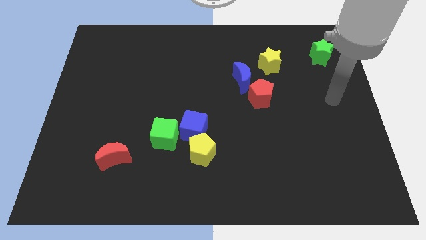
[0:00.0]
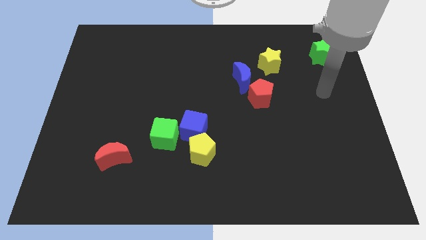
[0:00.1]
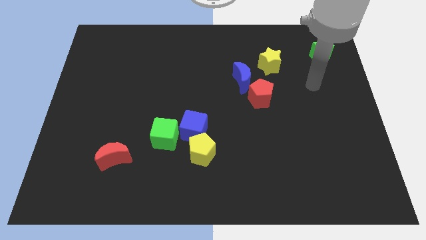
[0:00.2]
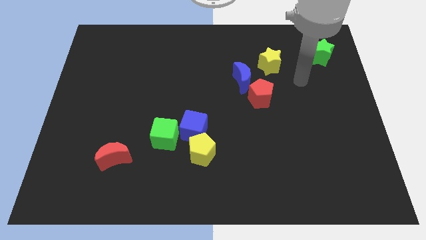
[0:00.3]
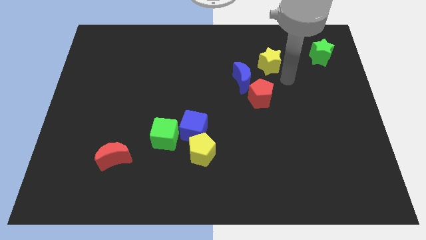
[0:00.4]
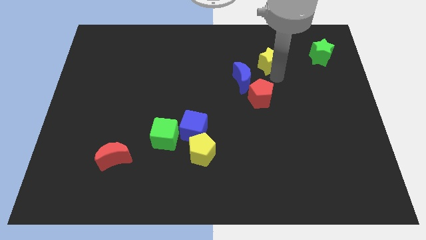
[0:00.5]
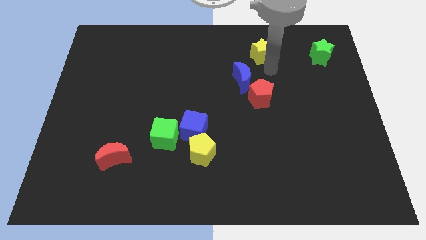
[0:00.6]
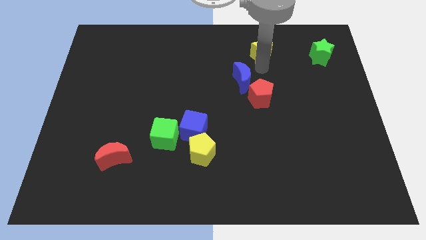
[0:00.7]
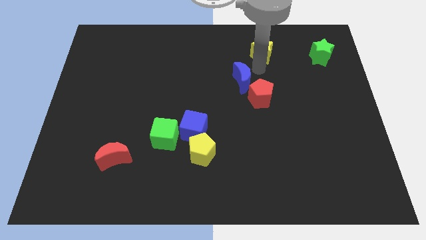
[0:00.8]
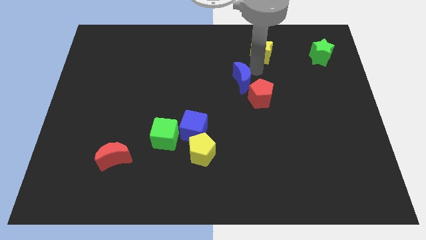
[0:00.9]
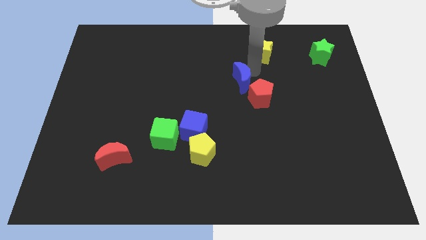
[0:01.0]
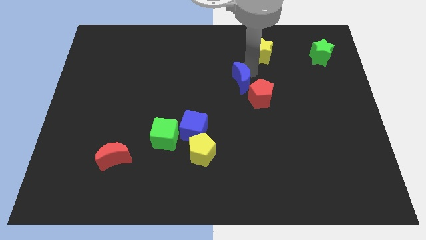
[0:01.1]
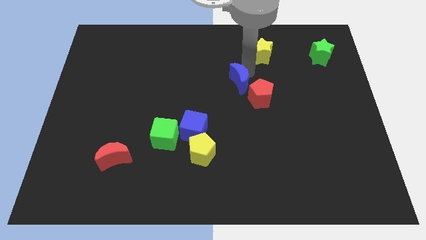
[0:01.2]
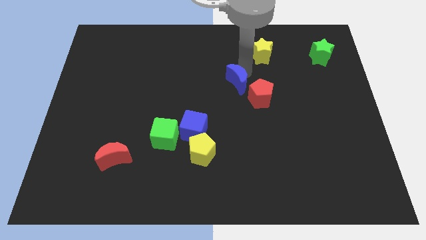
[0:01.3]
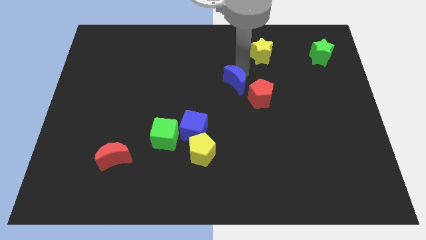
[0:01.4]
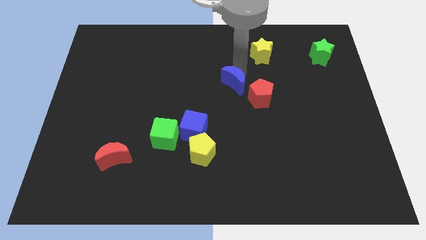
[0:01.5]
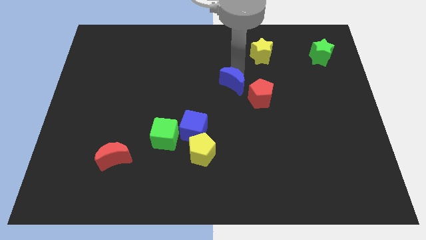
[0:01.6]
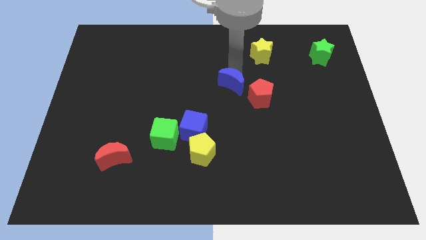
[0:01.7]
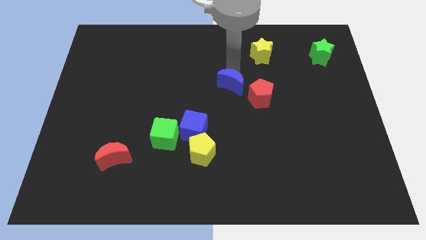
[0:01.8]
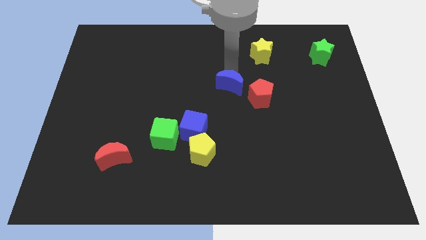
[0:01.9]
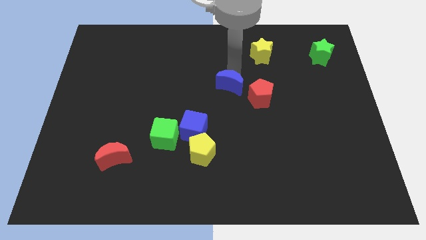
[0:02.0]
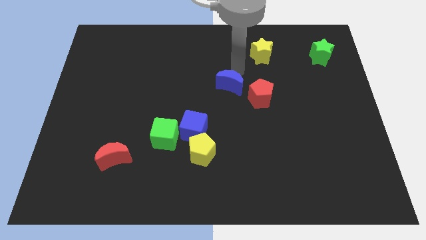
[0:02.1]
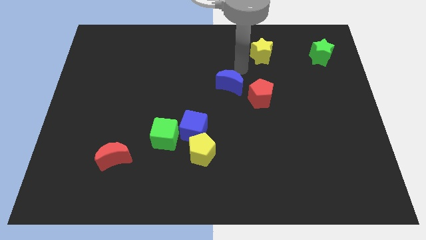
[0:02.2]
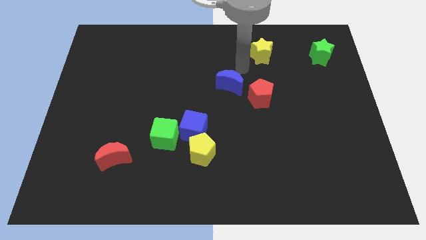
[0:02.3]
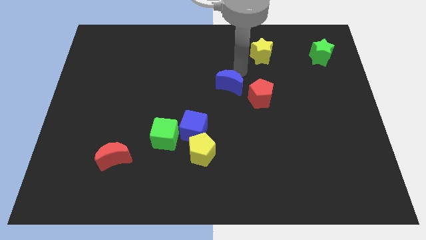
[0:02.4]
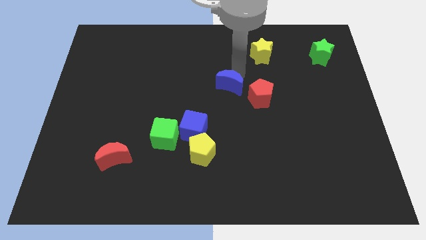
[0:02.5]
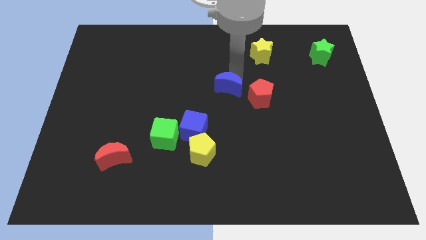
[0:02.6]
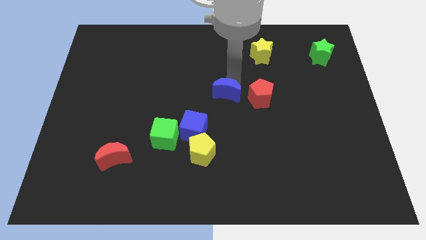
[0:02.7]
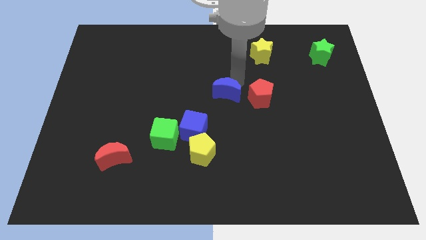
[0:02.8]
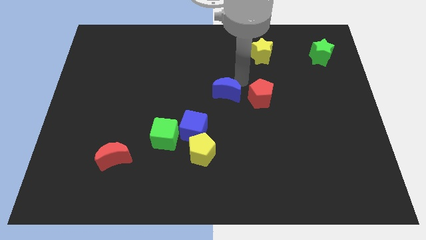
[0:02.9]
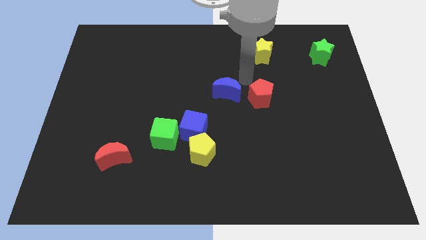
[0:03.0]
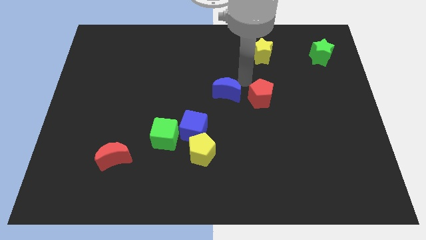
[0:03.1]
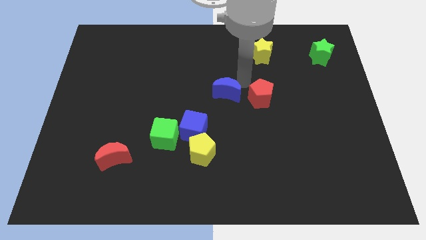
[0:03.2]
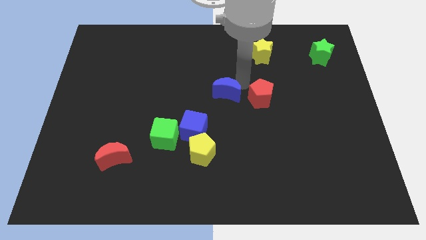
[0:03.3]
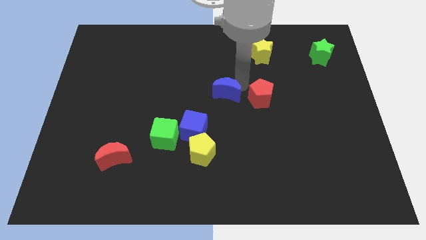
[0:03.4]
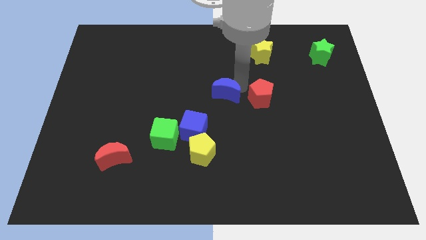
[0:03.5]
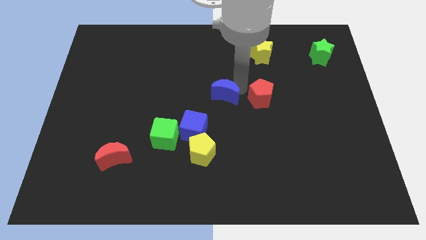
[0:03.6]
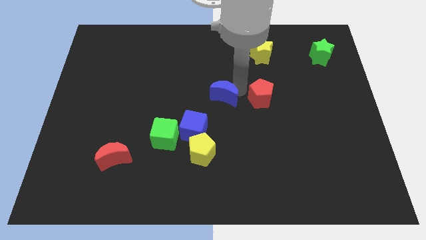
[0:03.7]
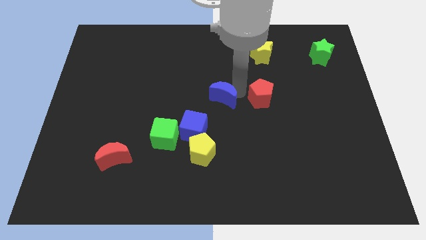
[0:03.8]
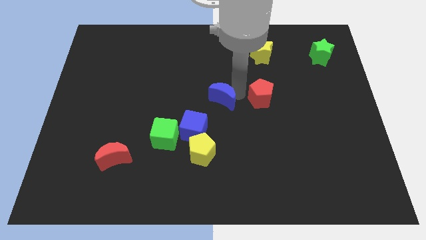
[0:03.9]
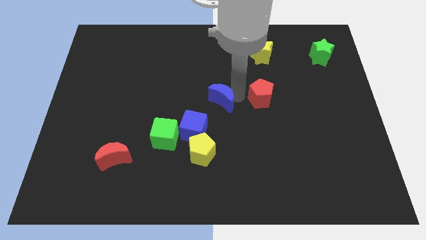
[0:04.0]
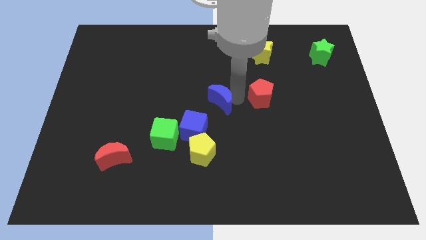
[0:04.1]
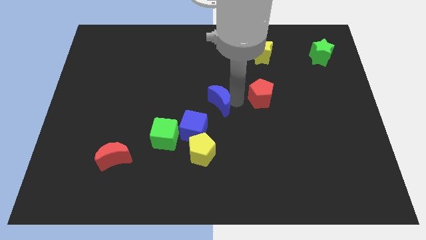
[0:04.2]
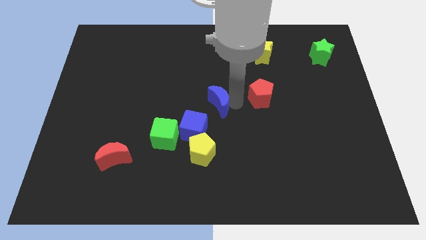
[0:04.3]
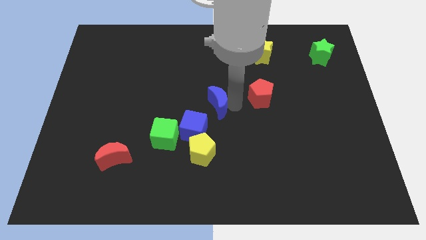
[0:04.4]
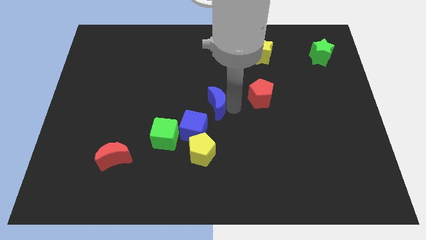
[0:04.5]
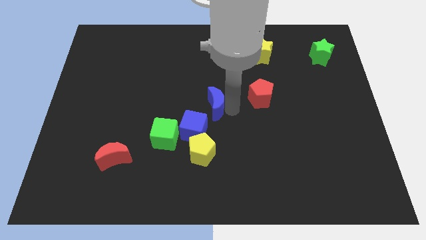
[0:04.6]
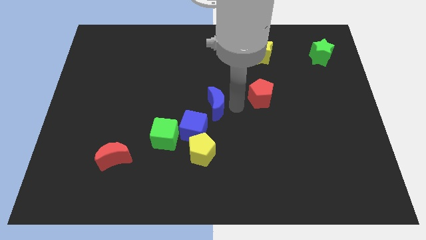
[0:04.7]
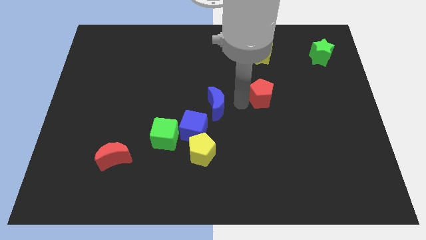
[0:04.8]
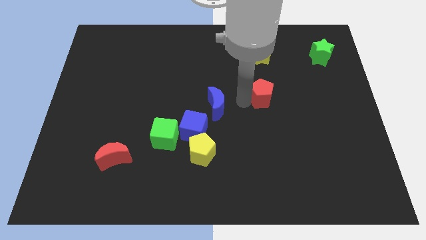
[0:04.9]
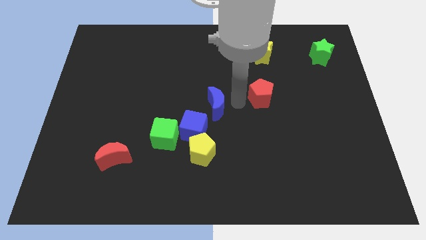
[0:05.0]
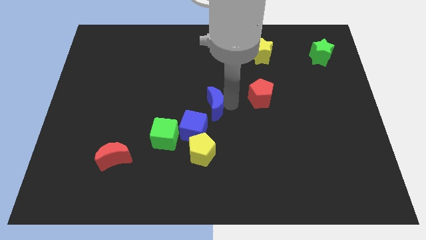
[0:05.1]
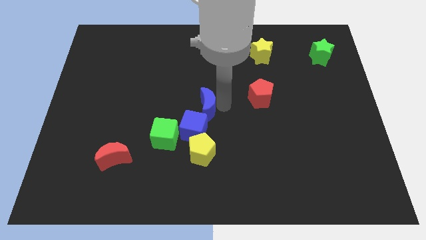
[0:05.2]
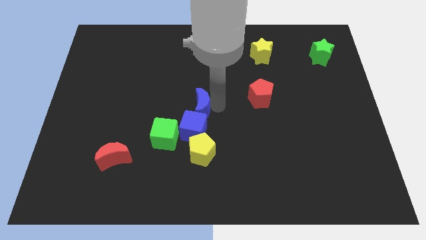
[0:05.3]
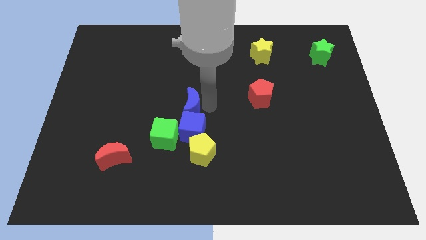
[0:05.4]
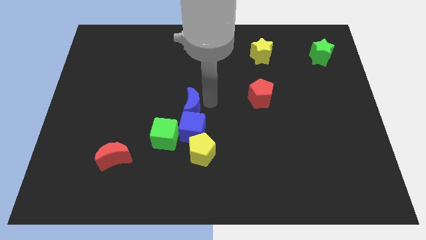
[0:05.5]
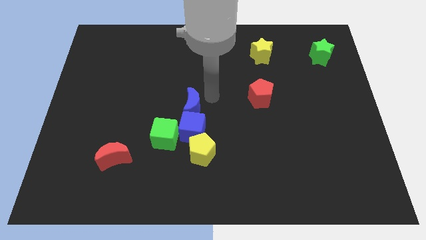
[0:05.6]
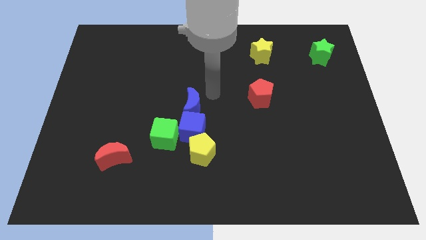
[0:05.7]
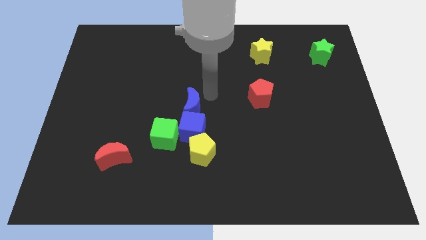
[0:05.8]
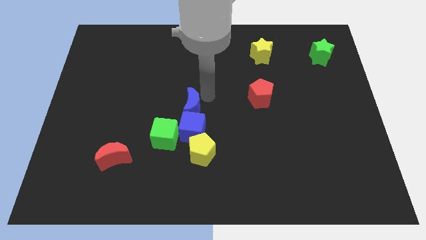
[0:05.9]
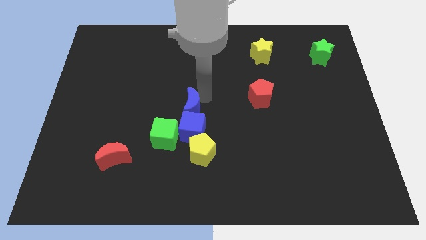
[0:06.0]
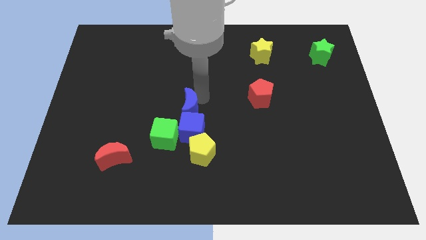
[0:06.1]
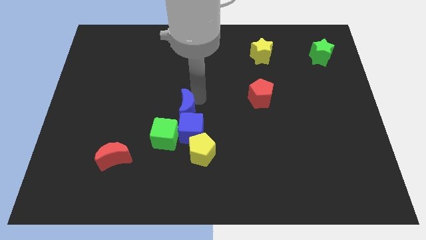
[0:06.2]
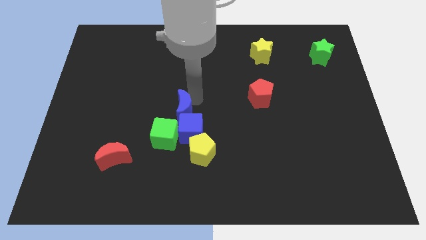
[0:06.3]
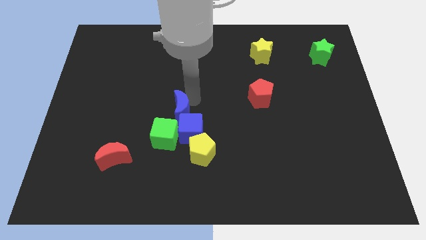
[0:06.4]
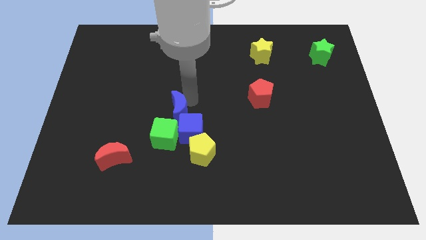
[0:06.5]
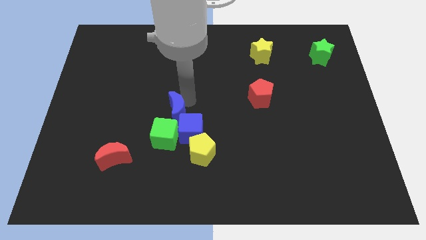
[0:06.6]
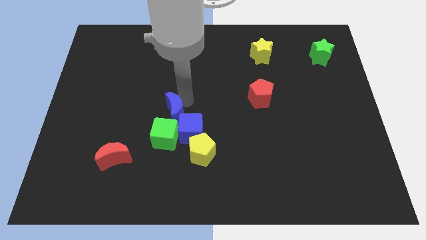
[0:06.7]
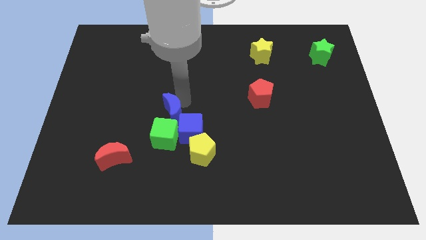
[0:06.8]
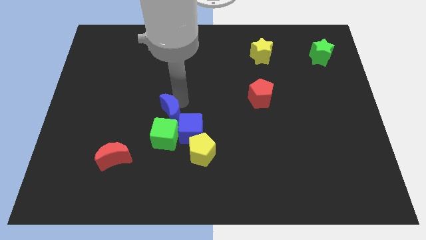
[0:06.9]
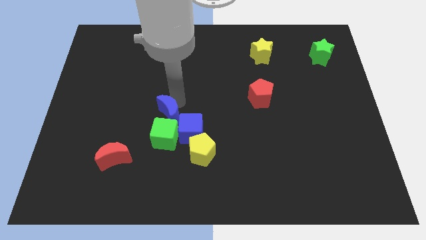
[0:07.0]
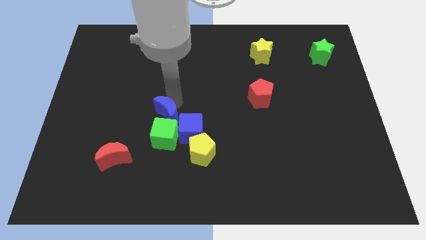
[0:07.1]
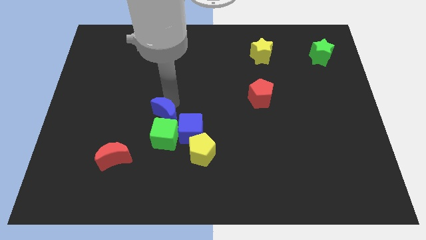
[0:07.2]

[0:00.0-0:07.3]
move the blue moon next to the green cube
